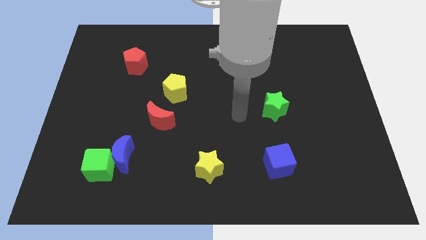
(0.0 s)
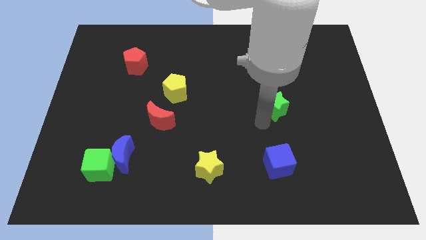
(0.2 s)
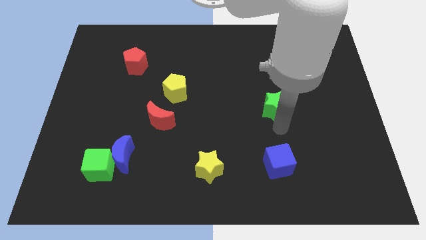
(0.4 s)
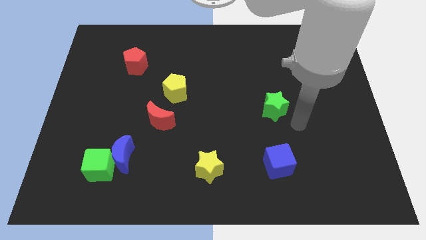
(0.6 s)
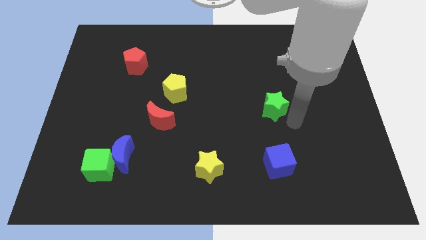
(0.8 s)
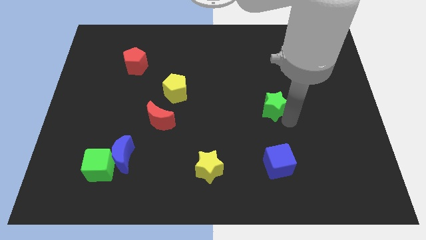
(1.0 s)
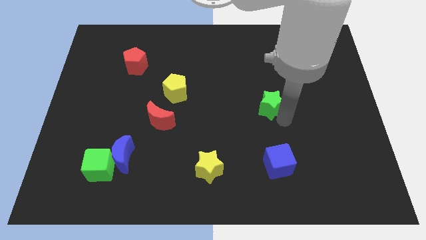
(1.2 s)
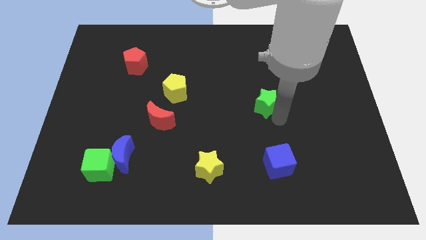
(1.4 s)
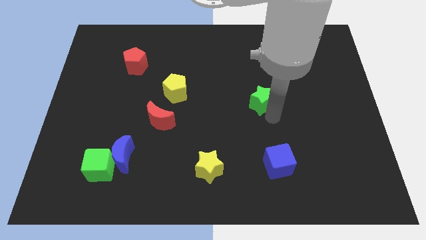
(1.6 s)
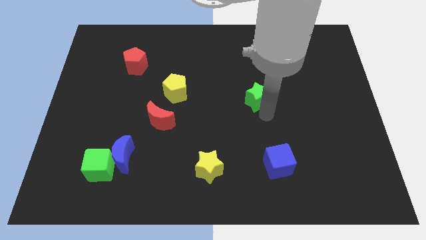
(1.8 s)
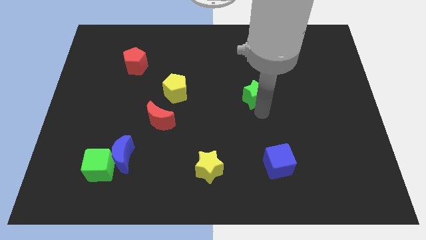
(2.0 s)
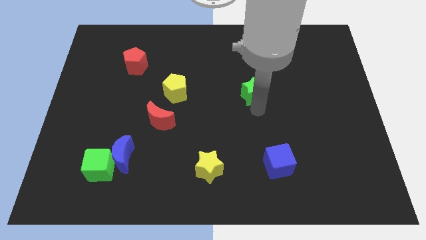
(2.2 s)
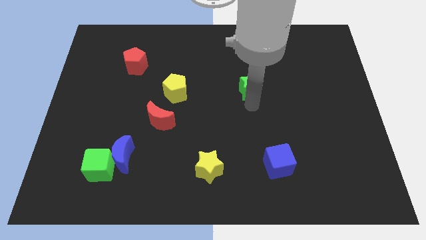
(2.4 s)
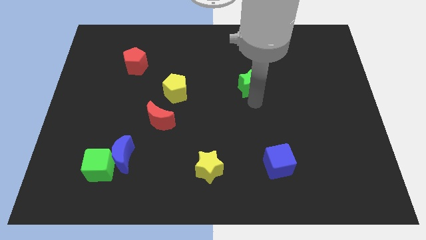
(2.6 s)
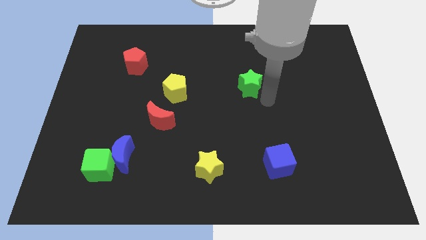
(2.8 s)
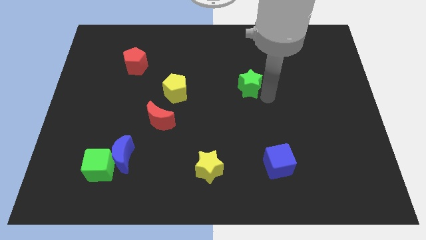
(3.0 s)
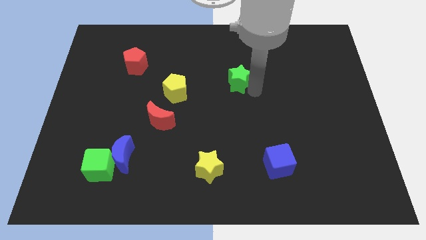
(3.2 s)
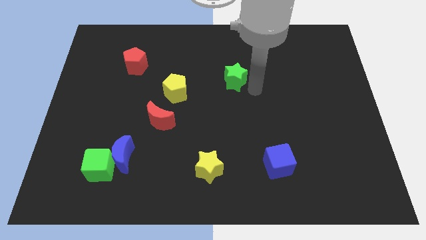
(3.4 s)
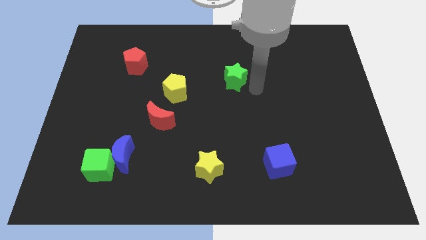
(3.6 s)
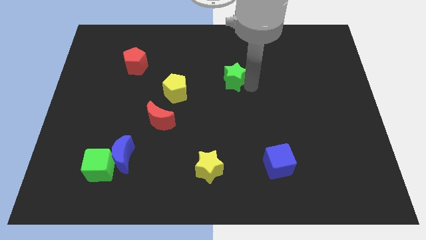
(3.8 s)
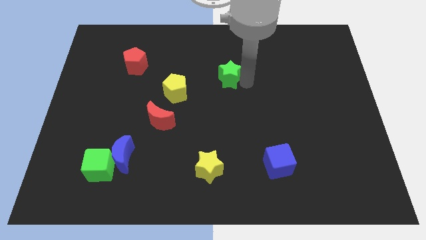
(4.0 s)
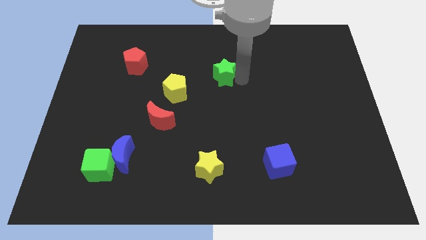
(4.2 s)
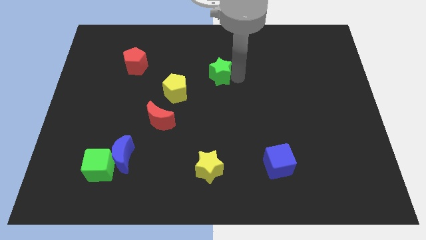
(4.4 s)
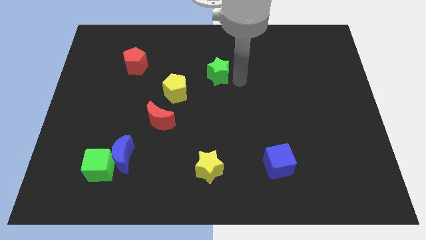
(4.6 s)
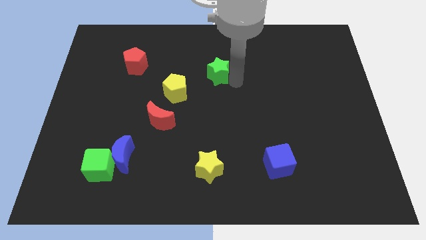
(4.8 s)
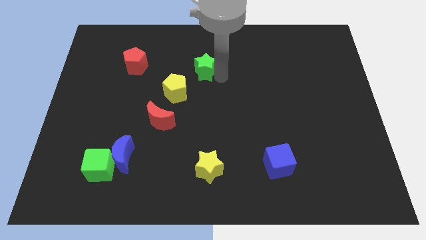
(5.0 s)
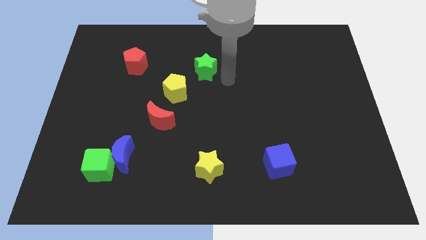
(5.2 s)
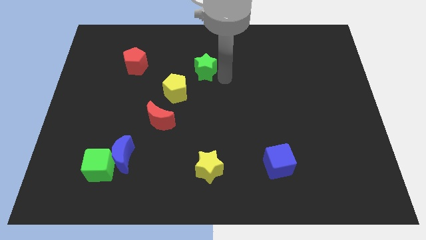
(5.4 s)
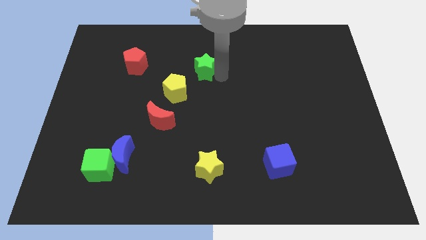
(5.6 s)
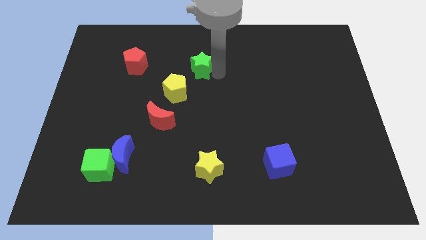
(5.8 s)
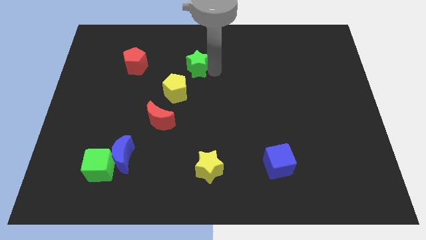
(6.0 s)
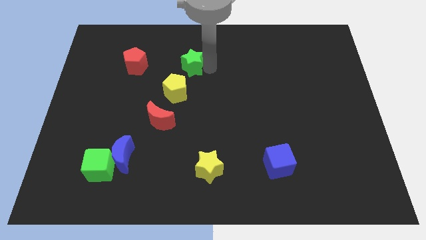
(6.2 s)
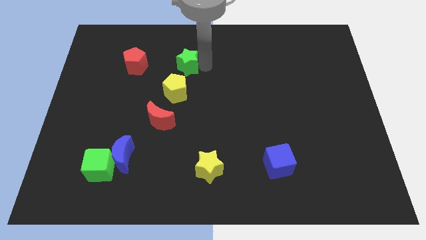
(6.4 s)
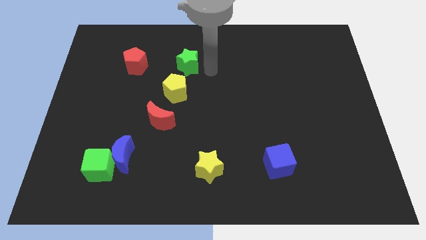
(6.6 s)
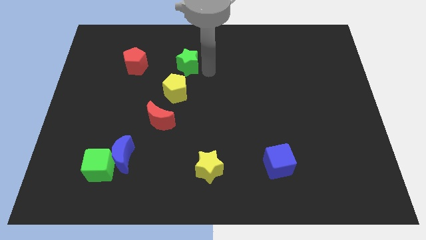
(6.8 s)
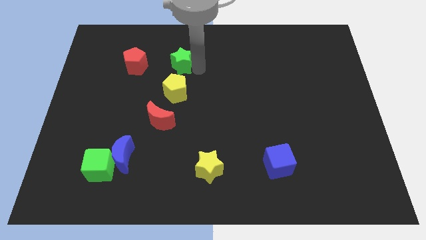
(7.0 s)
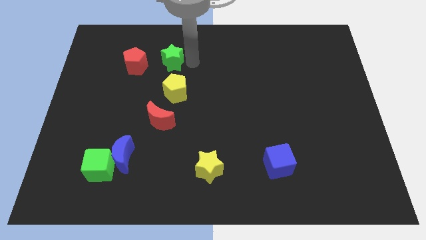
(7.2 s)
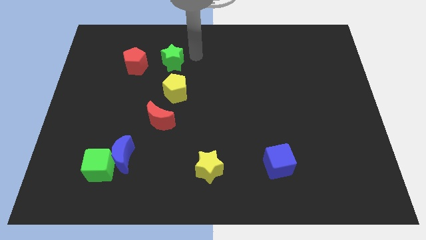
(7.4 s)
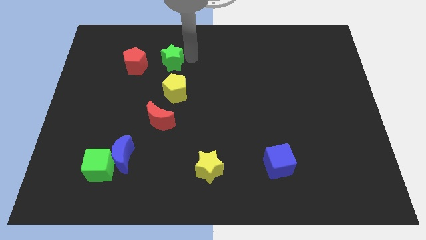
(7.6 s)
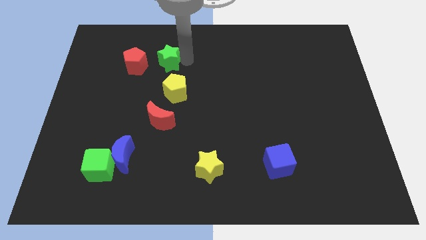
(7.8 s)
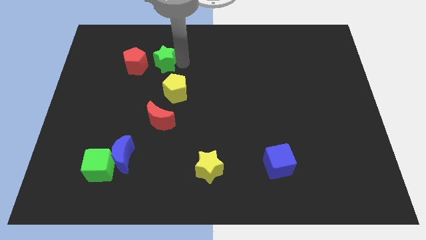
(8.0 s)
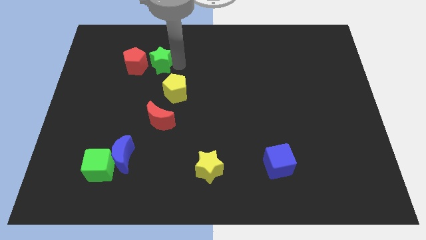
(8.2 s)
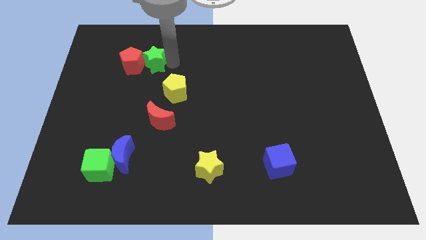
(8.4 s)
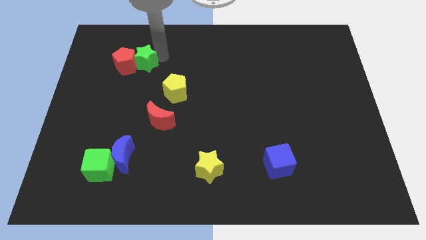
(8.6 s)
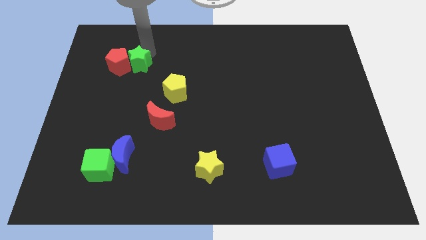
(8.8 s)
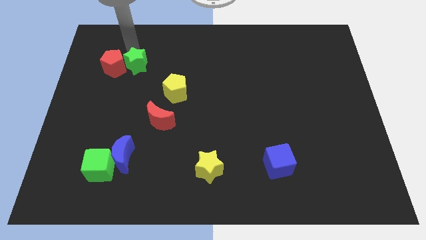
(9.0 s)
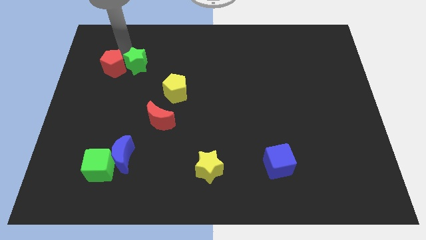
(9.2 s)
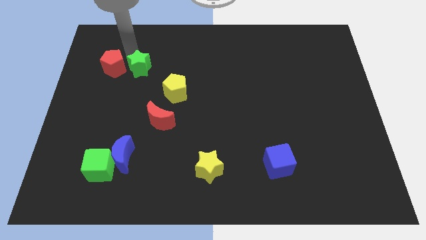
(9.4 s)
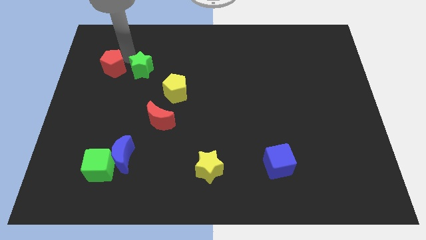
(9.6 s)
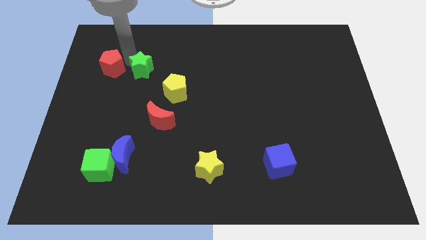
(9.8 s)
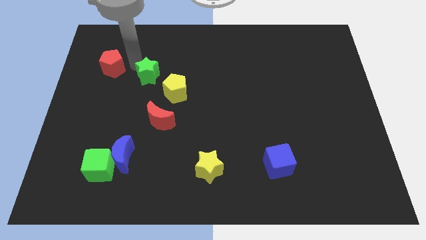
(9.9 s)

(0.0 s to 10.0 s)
slide the green star to the top of the red moon

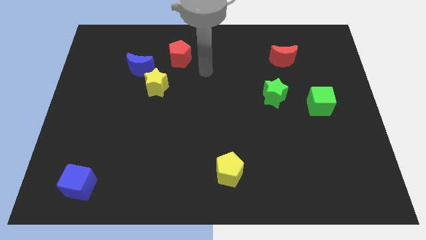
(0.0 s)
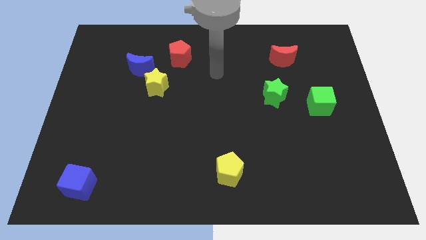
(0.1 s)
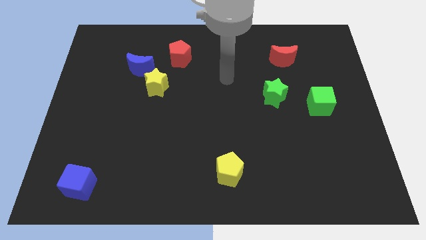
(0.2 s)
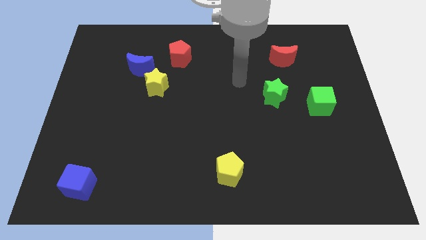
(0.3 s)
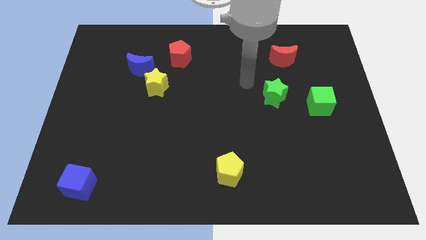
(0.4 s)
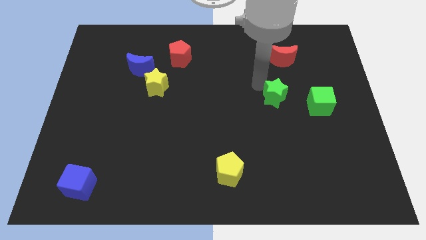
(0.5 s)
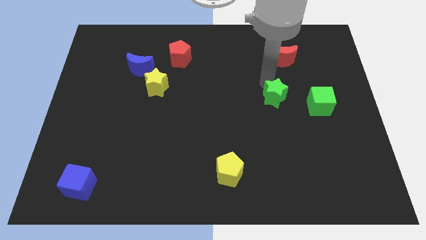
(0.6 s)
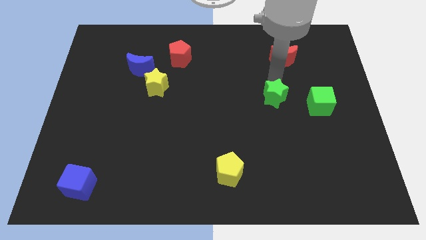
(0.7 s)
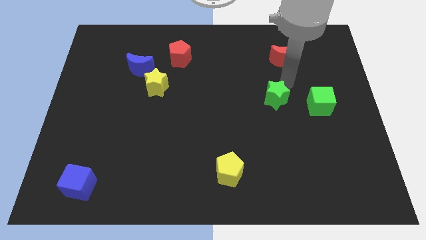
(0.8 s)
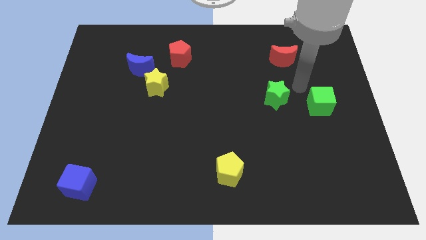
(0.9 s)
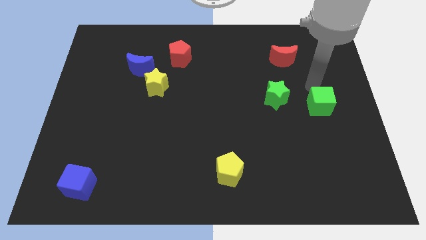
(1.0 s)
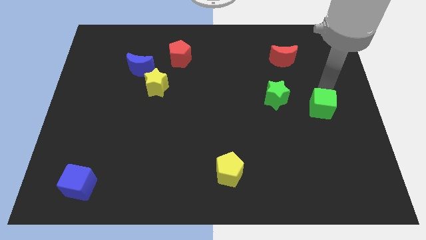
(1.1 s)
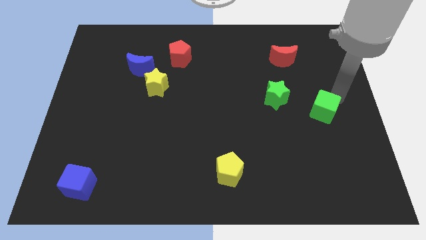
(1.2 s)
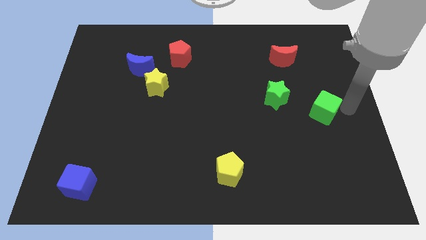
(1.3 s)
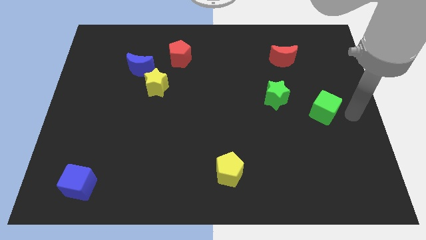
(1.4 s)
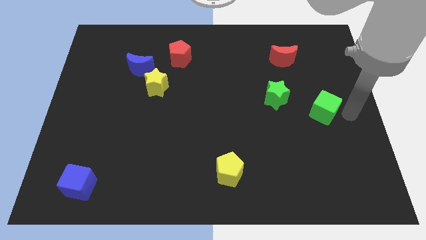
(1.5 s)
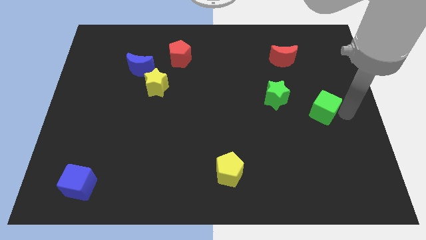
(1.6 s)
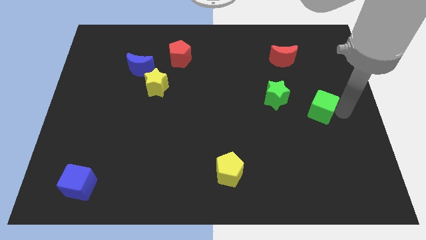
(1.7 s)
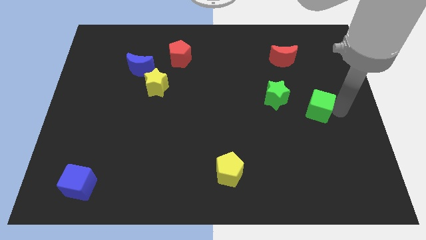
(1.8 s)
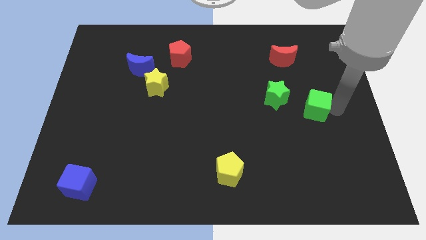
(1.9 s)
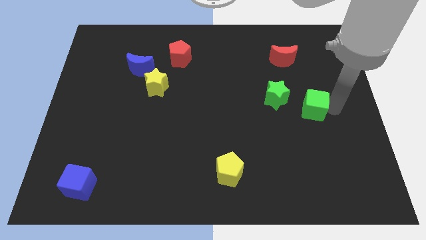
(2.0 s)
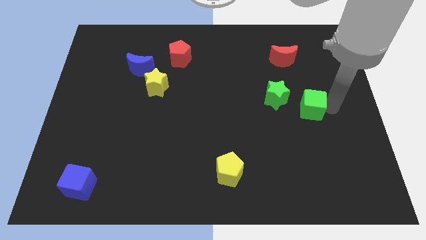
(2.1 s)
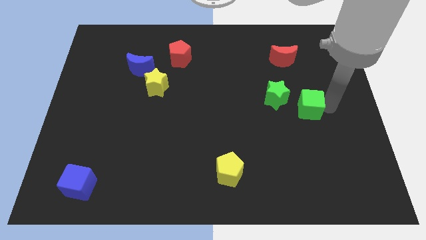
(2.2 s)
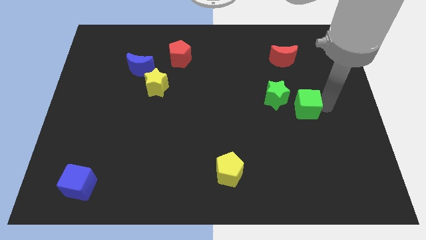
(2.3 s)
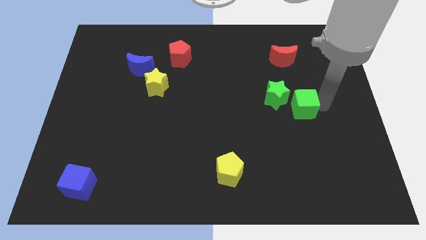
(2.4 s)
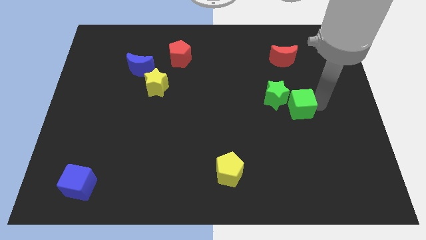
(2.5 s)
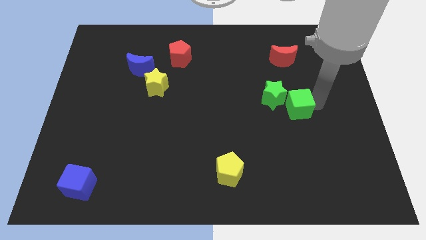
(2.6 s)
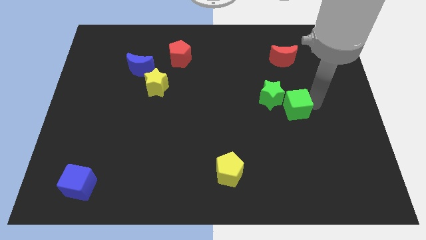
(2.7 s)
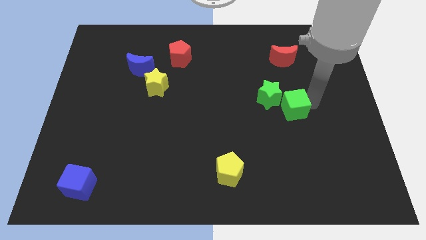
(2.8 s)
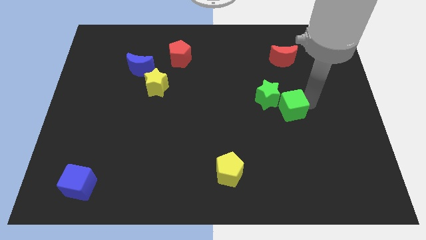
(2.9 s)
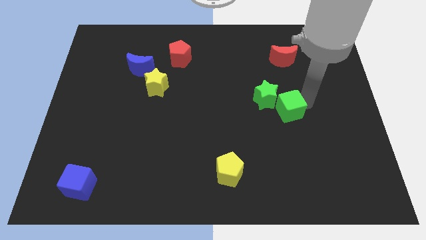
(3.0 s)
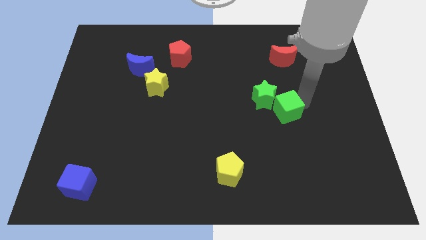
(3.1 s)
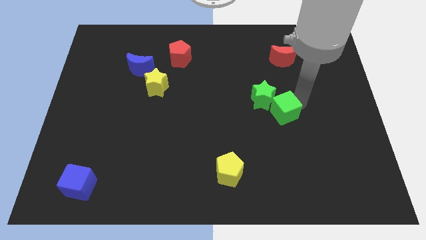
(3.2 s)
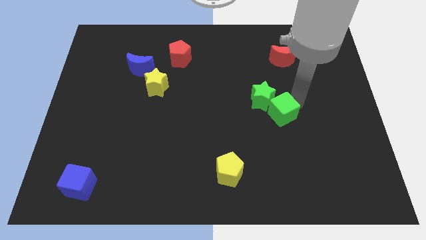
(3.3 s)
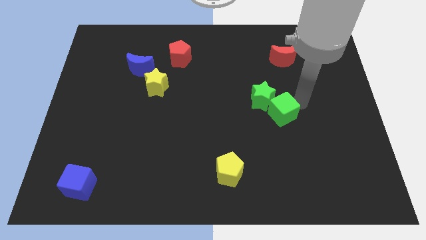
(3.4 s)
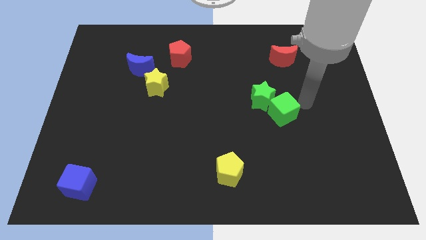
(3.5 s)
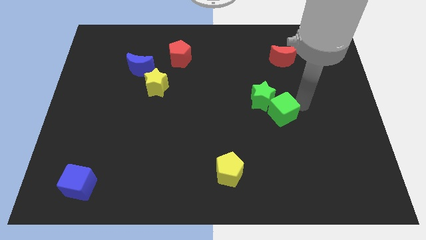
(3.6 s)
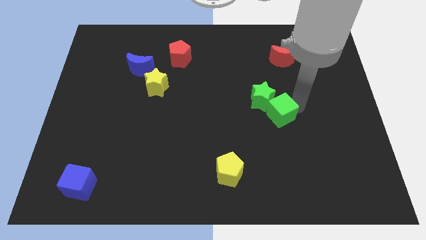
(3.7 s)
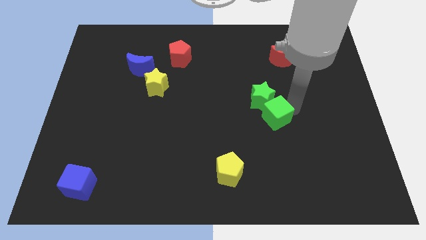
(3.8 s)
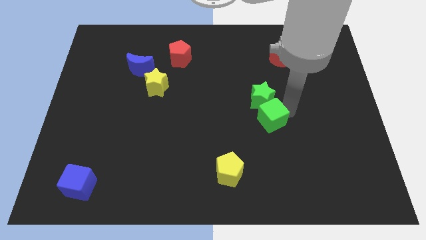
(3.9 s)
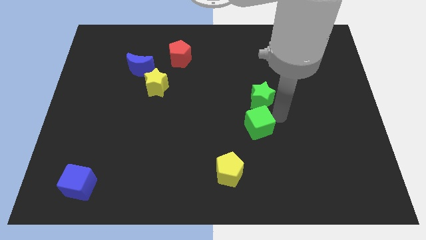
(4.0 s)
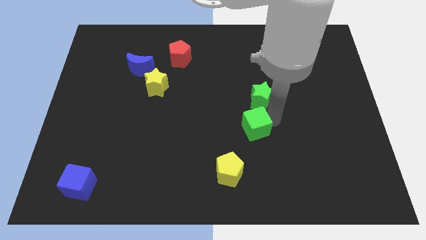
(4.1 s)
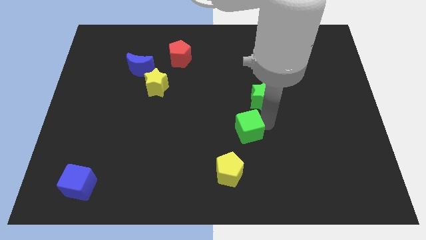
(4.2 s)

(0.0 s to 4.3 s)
put the green cube to the top of the yellow pentagon
